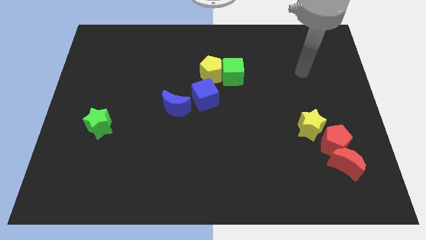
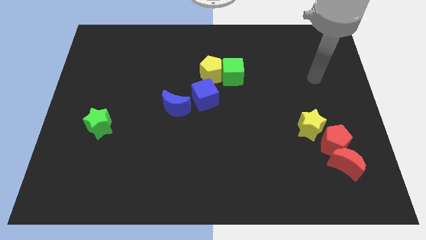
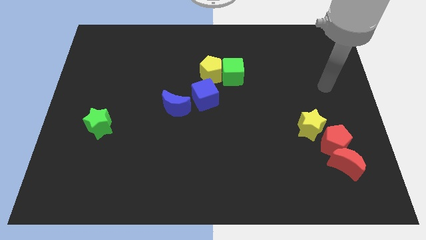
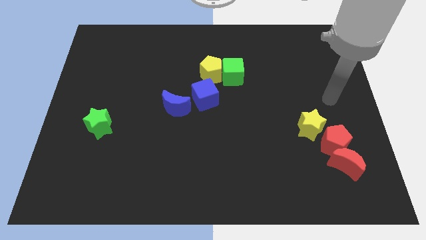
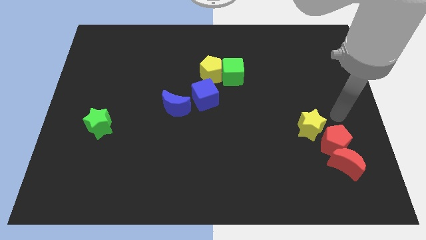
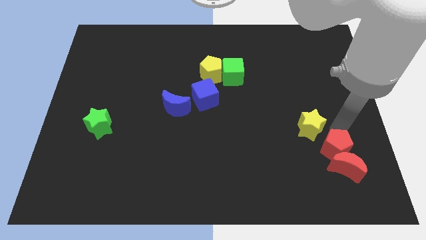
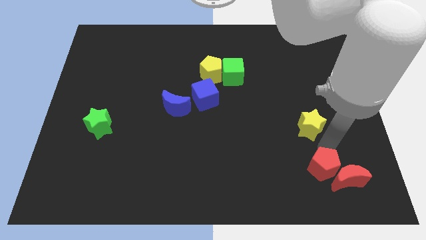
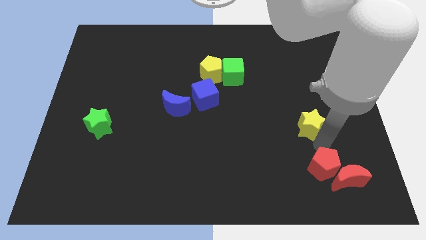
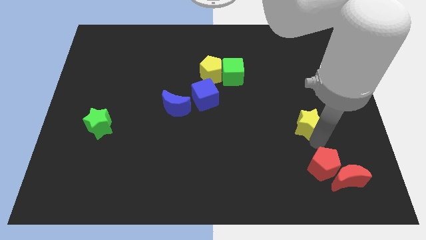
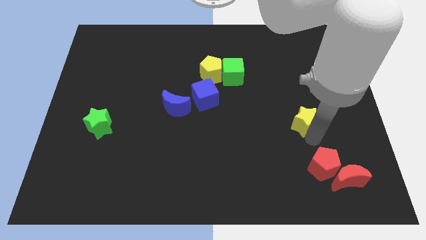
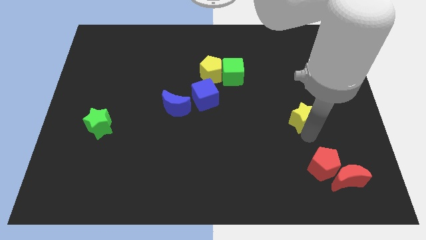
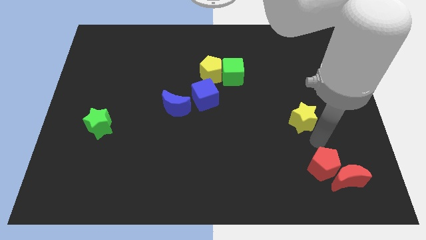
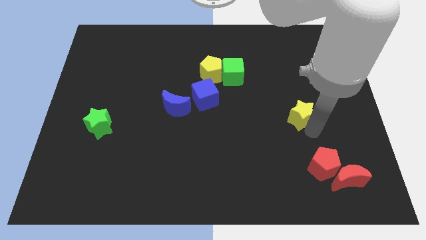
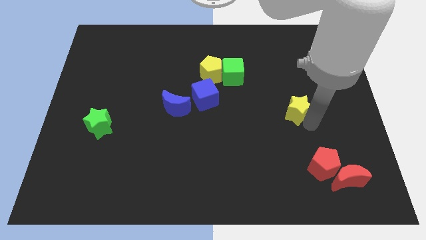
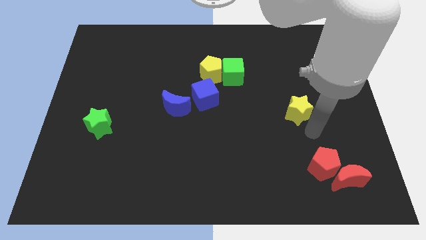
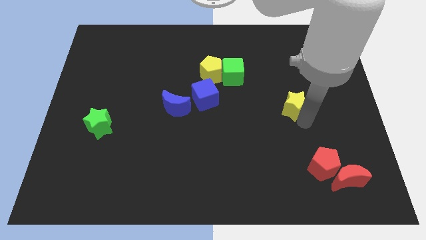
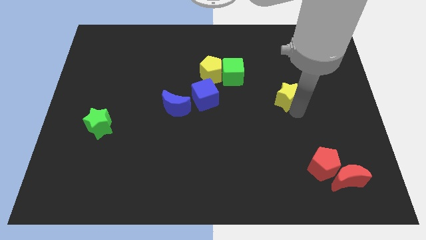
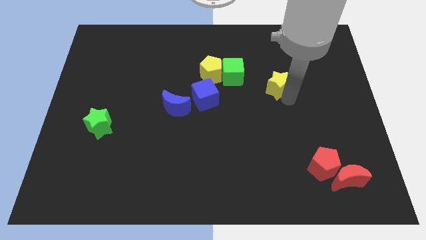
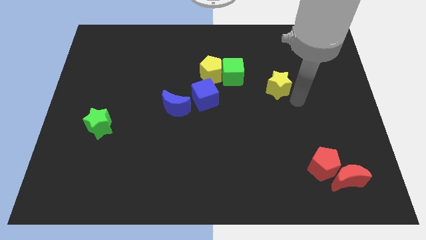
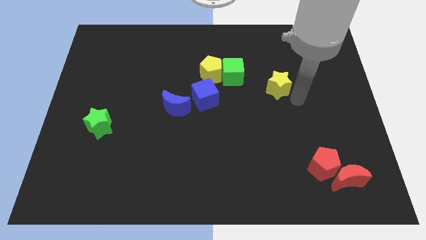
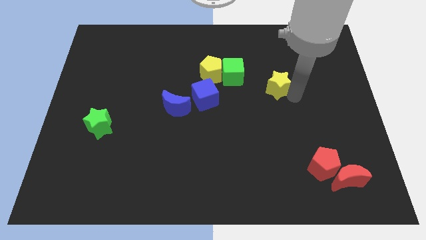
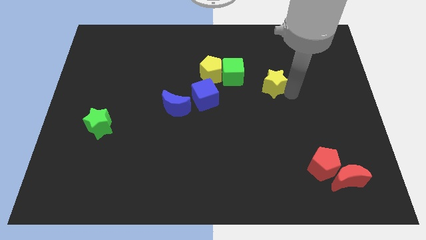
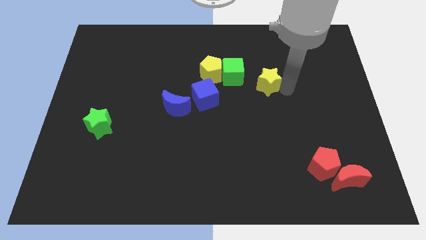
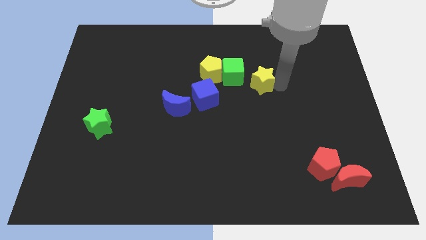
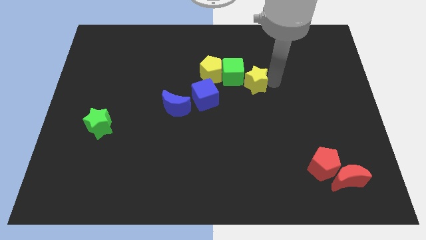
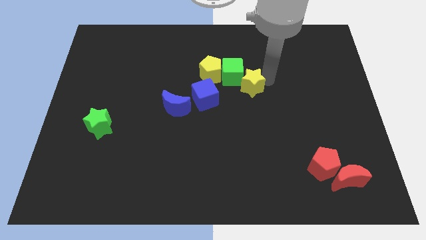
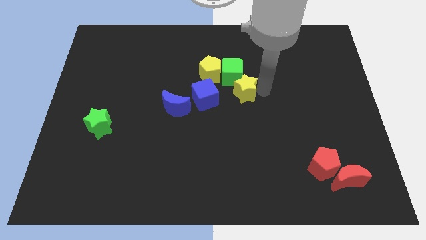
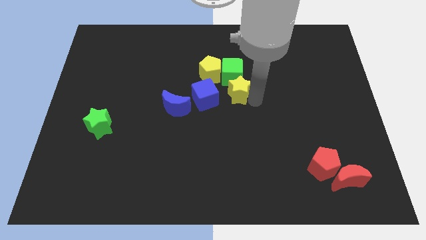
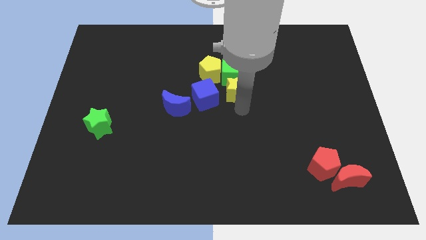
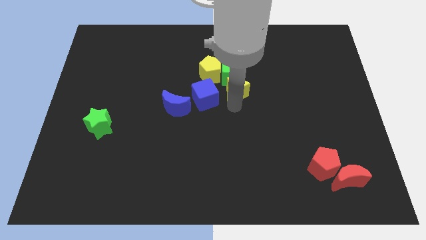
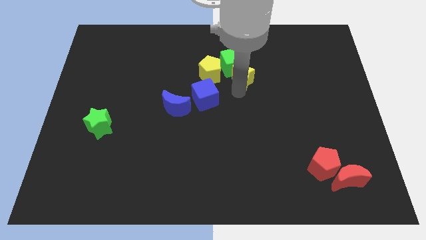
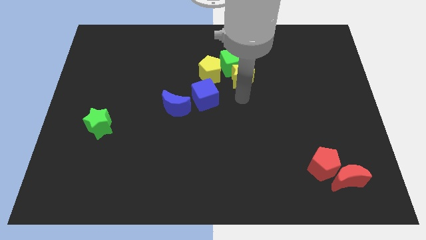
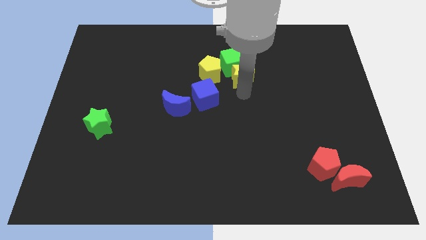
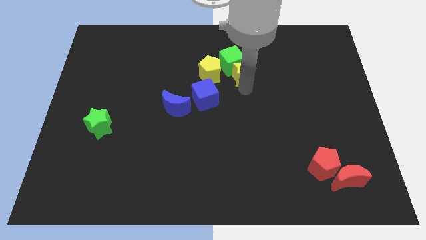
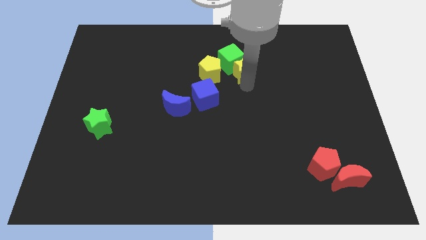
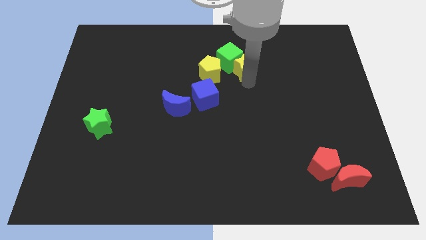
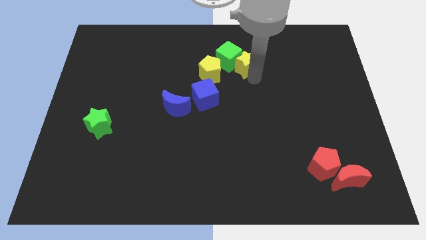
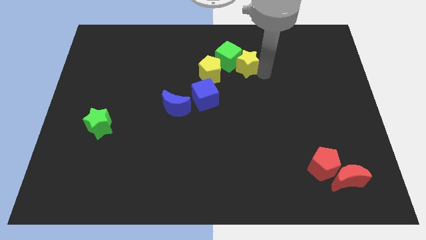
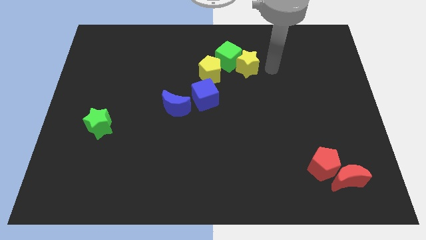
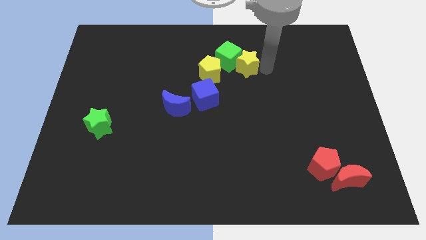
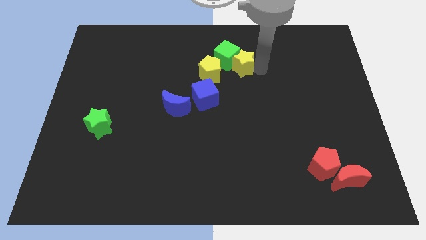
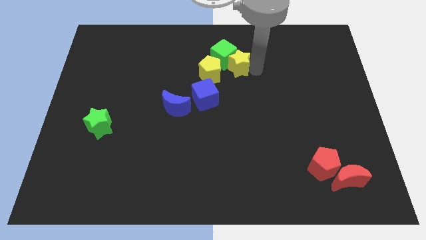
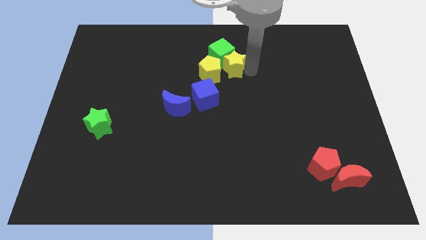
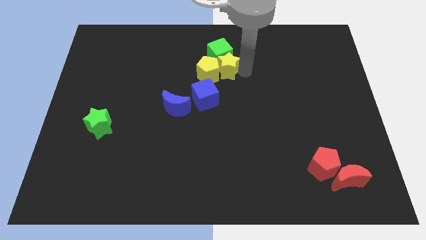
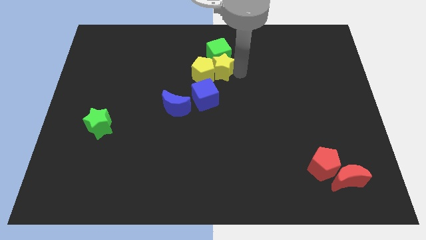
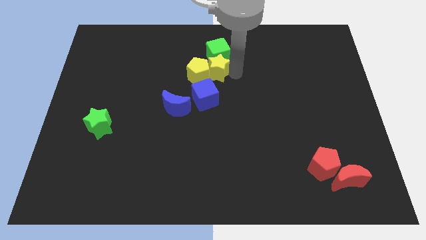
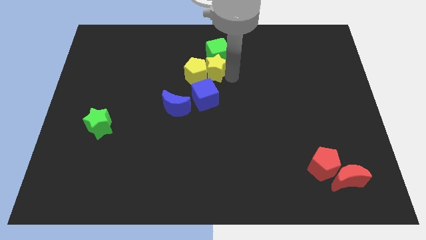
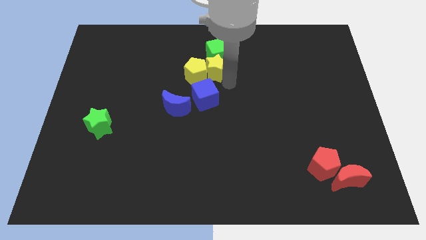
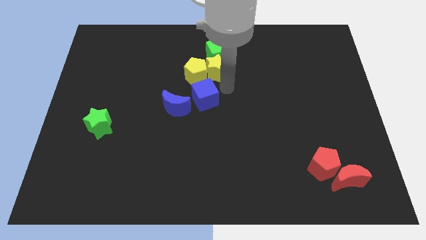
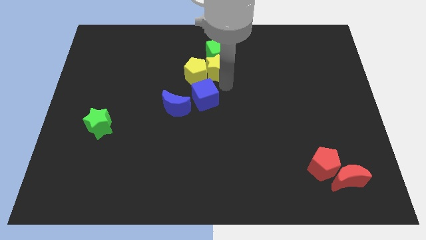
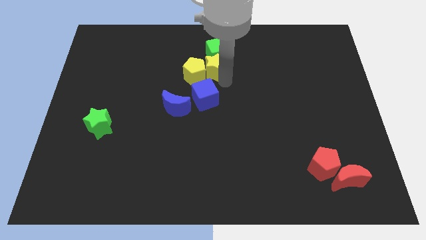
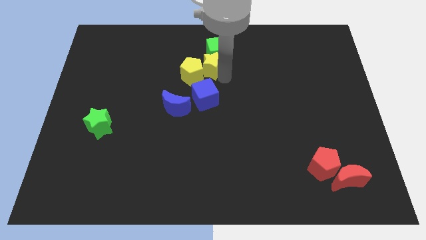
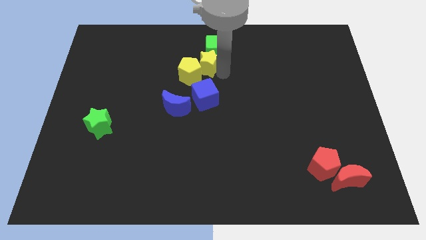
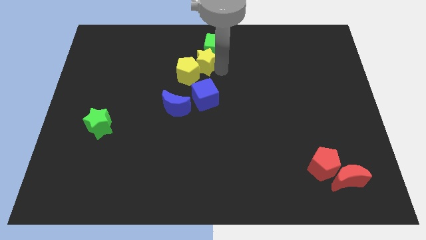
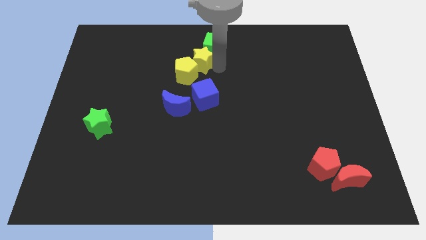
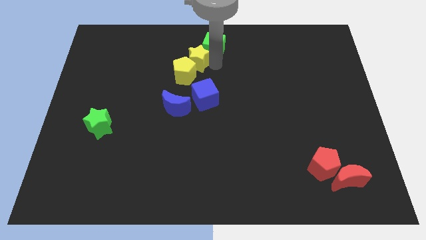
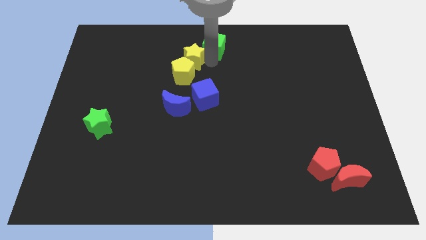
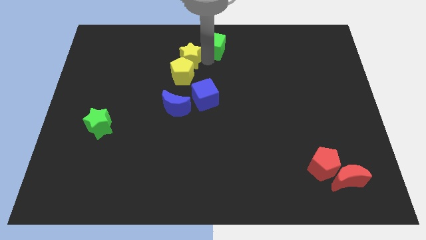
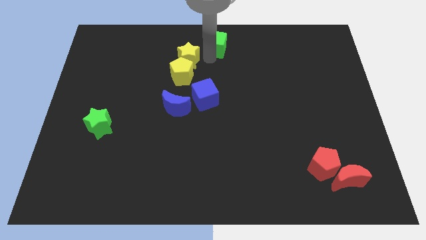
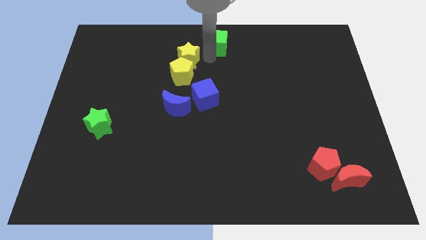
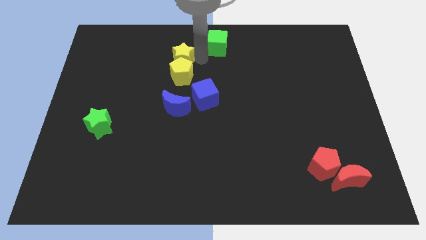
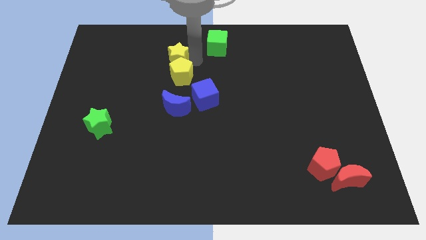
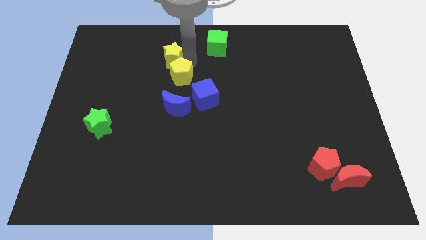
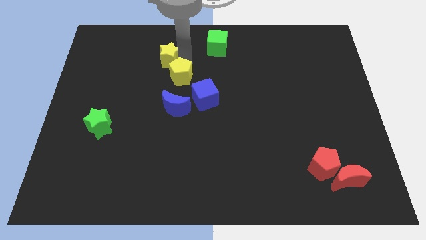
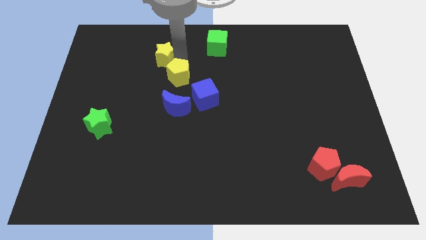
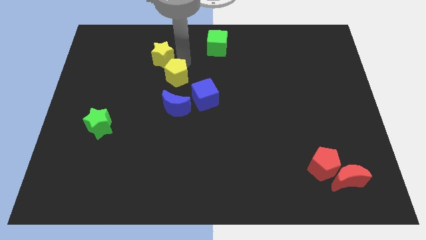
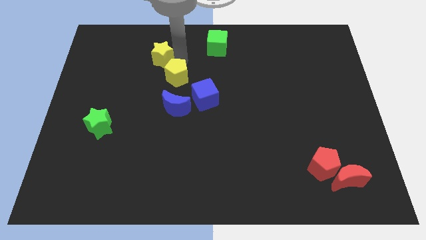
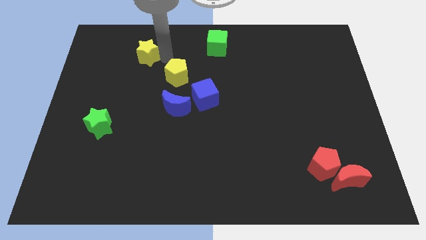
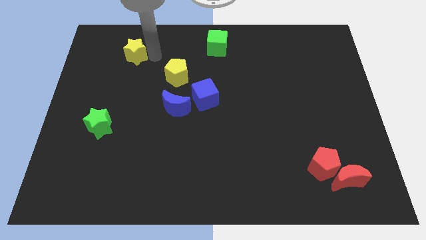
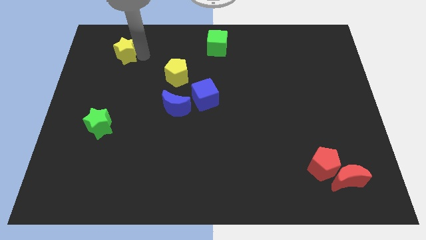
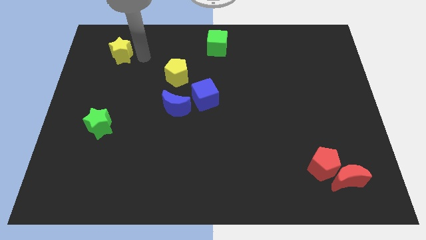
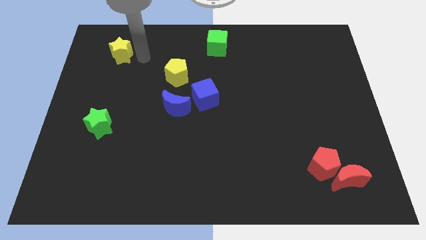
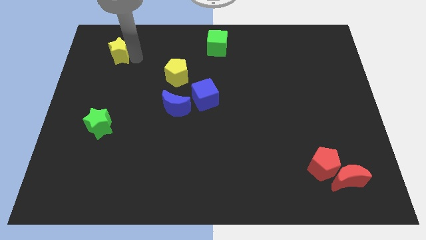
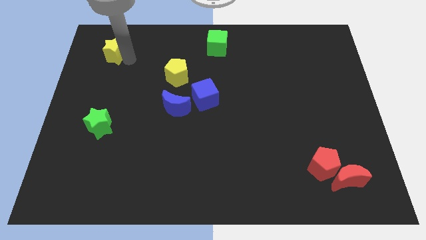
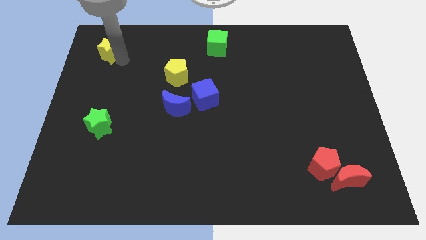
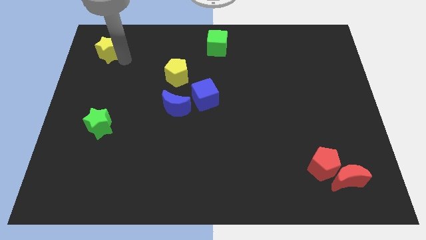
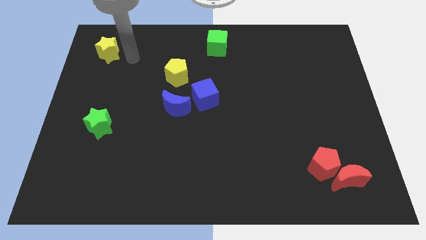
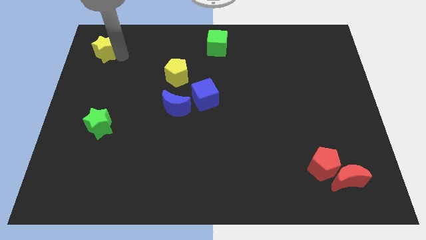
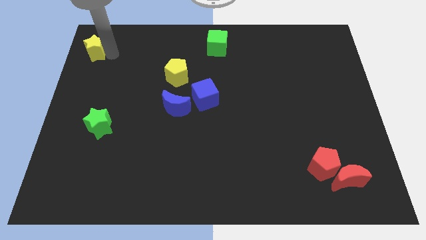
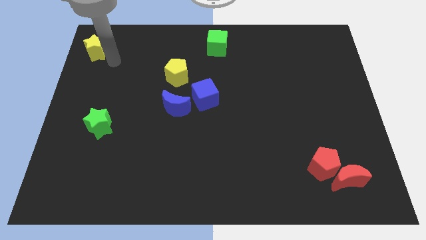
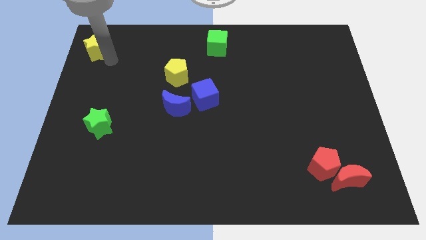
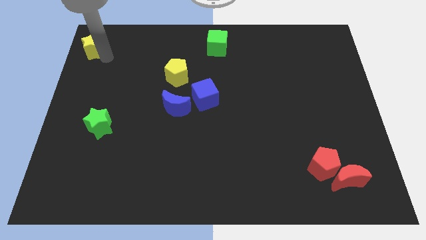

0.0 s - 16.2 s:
slide the yellow star to the upper left corner
